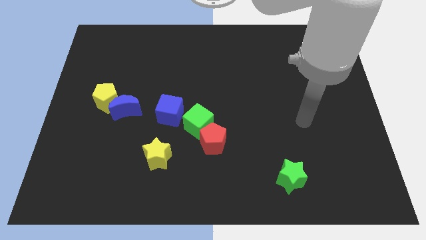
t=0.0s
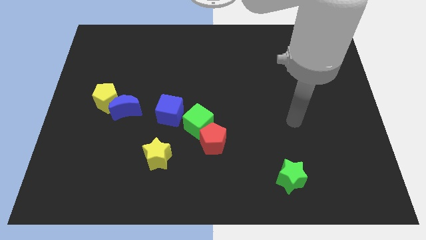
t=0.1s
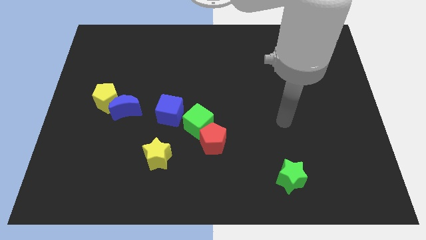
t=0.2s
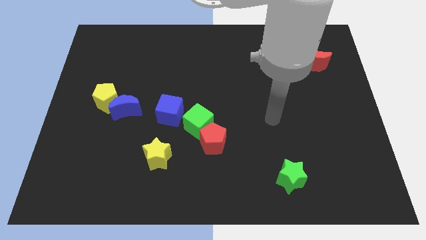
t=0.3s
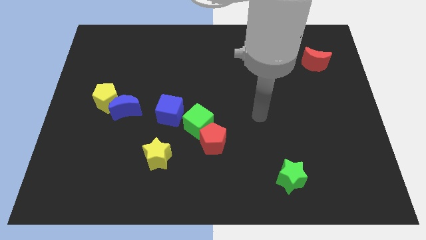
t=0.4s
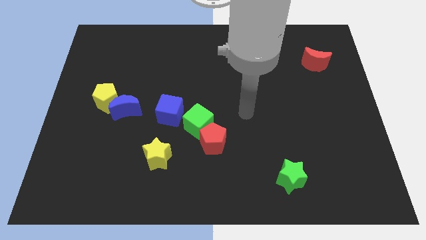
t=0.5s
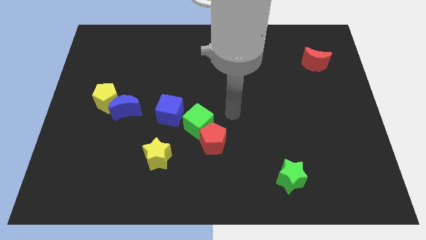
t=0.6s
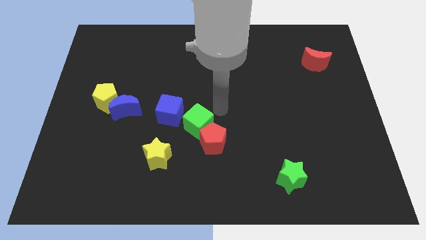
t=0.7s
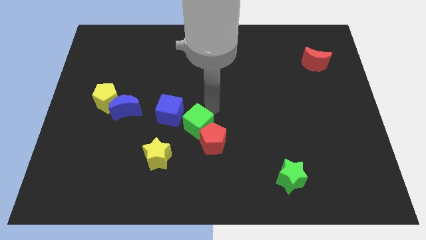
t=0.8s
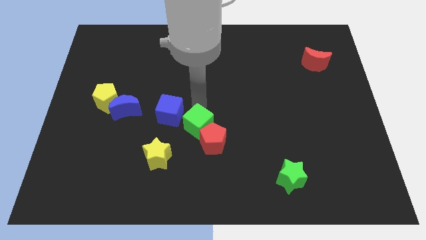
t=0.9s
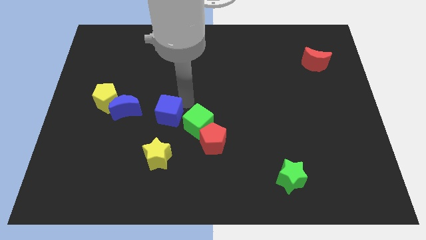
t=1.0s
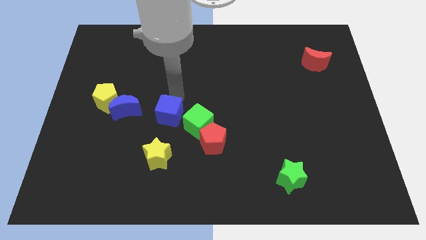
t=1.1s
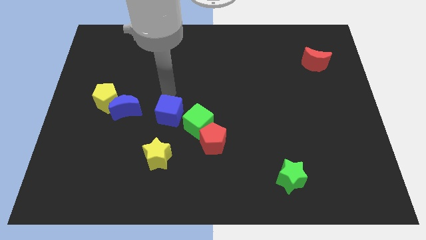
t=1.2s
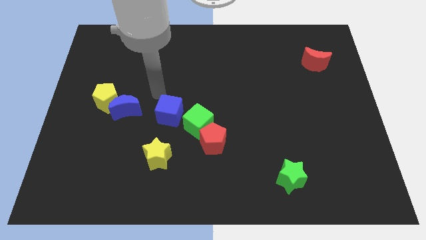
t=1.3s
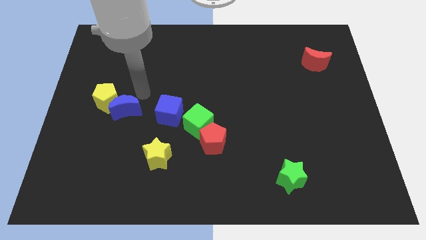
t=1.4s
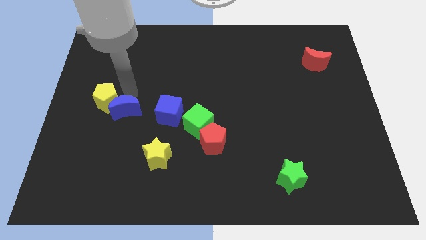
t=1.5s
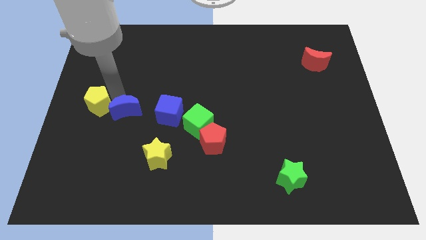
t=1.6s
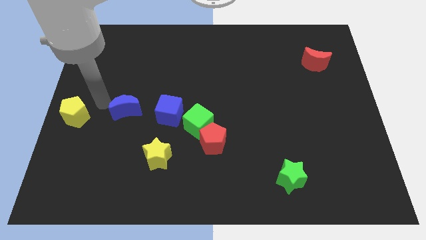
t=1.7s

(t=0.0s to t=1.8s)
pull the blue moon apart from the yellow pentagon

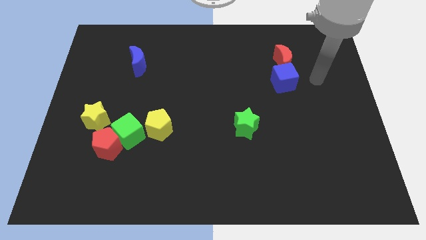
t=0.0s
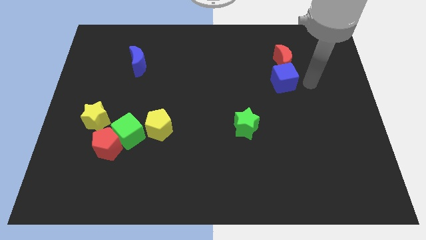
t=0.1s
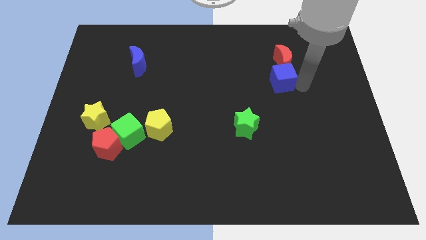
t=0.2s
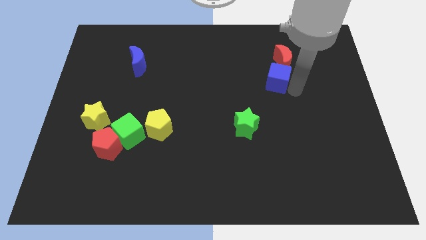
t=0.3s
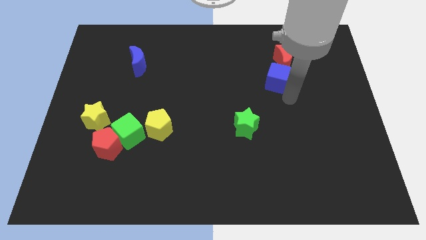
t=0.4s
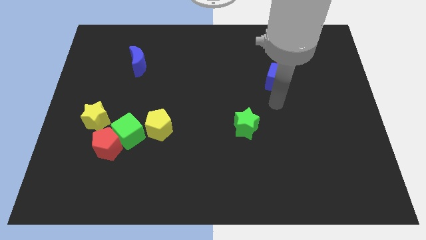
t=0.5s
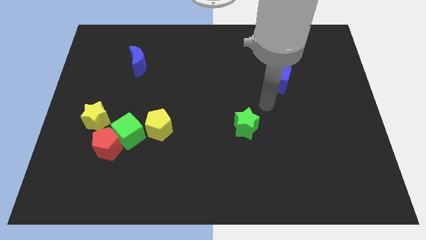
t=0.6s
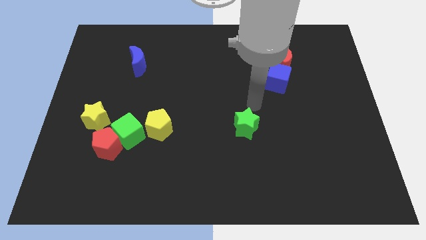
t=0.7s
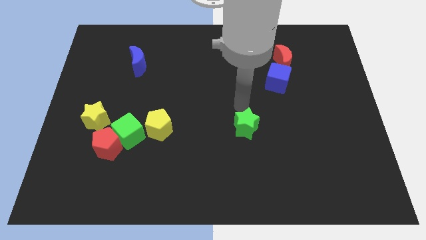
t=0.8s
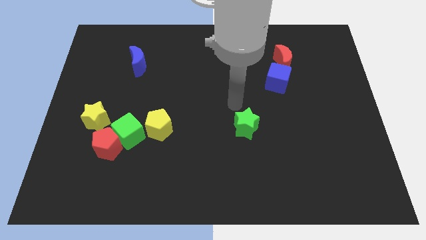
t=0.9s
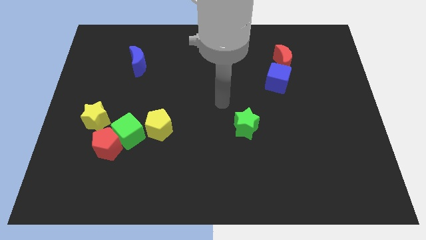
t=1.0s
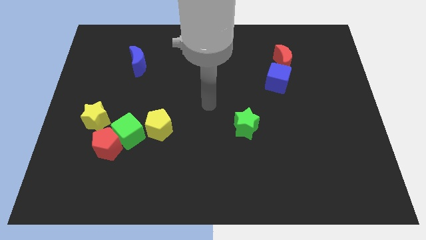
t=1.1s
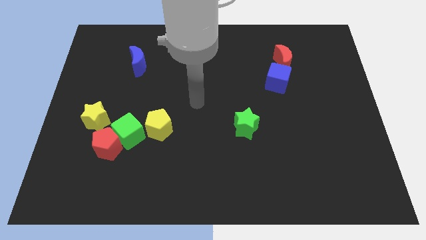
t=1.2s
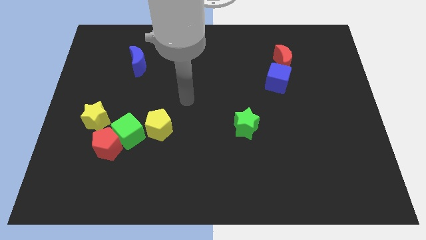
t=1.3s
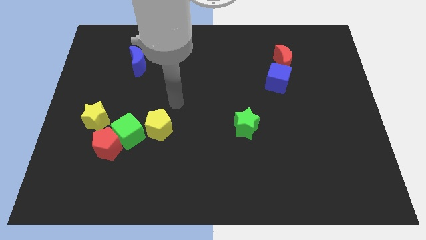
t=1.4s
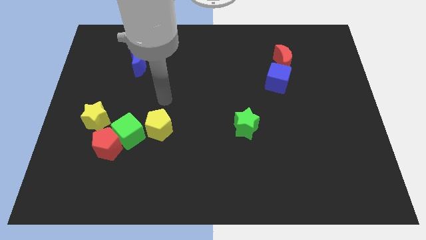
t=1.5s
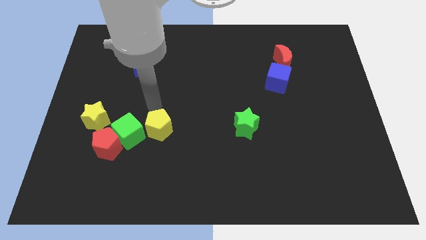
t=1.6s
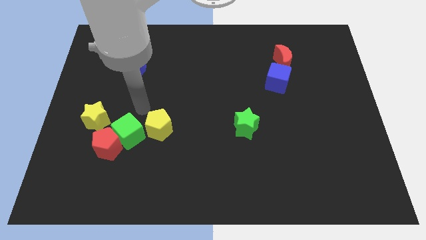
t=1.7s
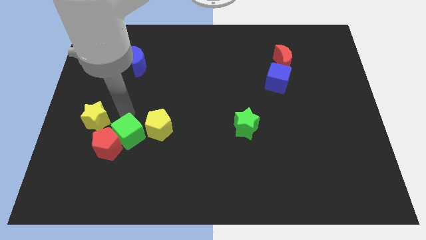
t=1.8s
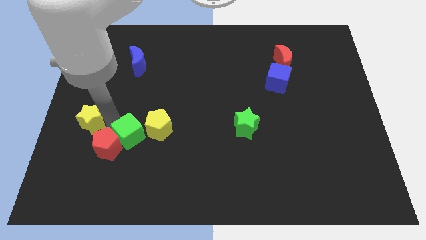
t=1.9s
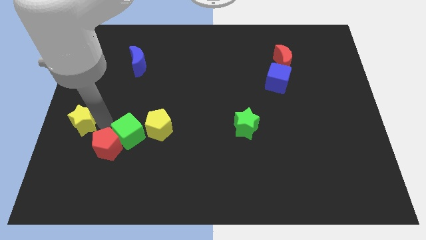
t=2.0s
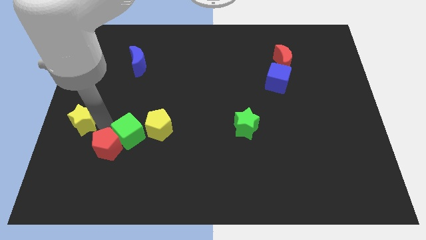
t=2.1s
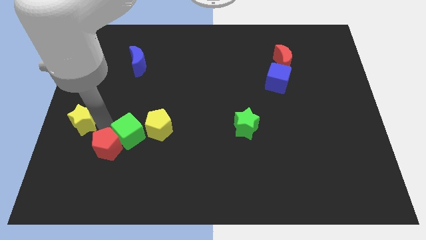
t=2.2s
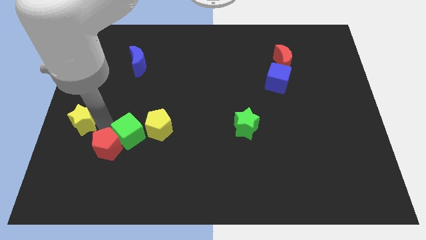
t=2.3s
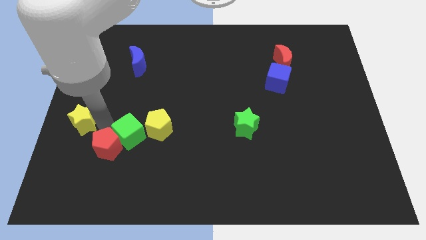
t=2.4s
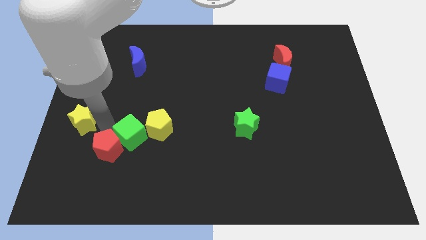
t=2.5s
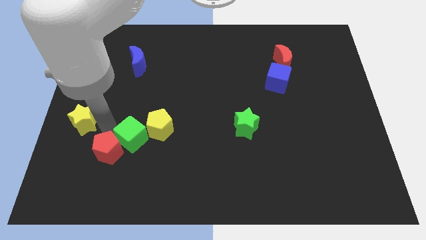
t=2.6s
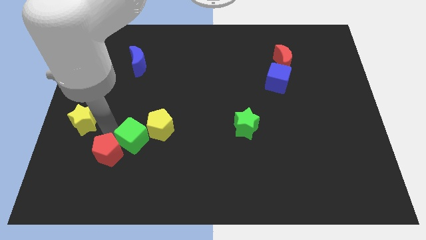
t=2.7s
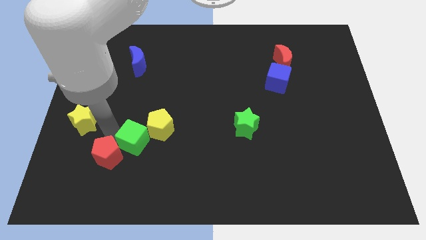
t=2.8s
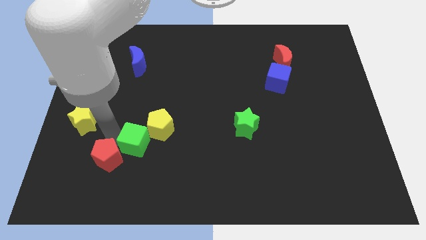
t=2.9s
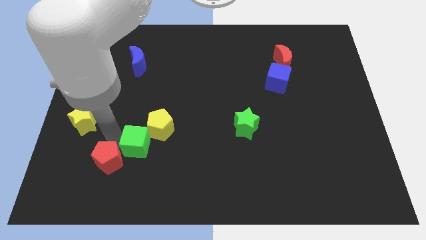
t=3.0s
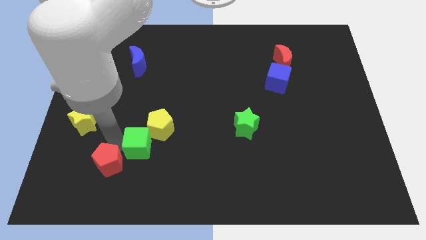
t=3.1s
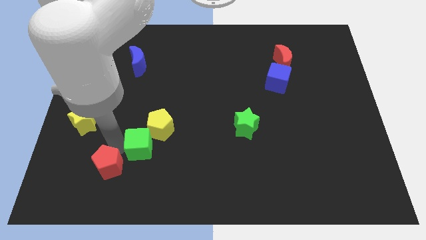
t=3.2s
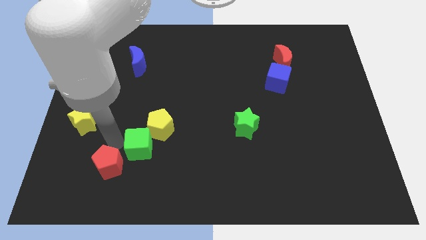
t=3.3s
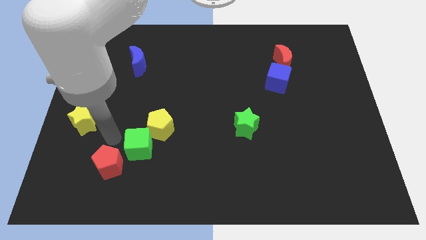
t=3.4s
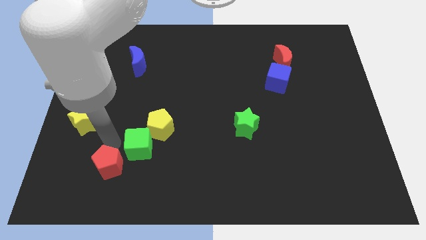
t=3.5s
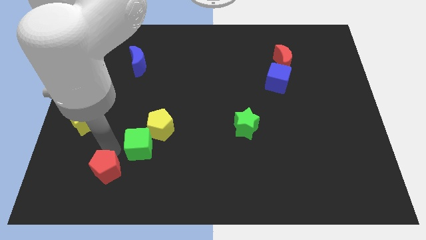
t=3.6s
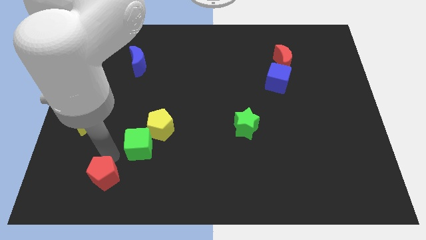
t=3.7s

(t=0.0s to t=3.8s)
pull the red pentagon apart from the green cube and yellow star

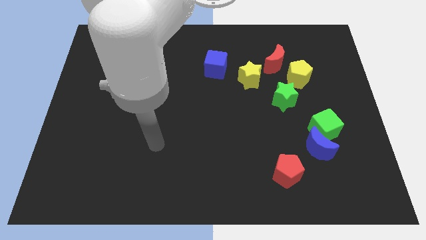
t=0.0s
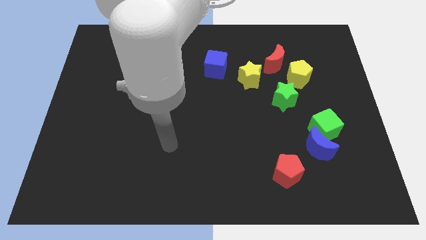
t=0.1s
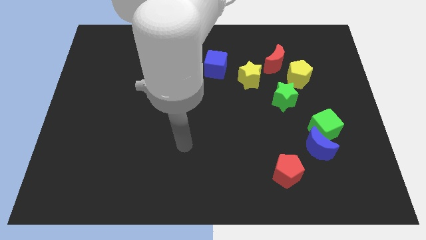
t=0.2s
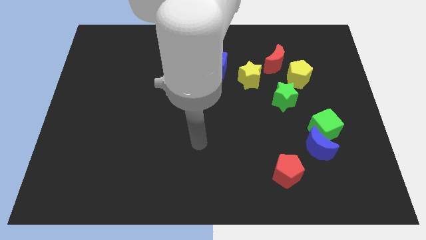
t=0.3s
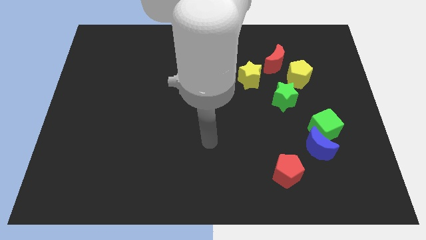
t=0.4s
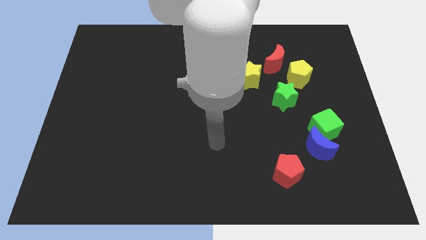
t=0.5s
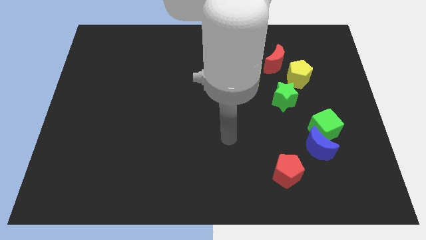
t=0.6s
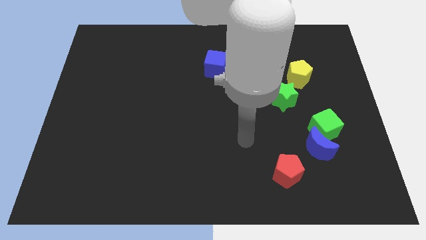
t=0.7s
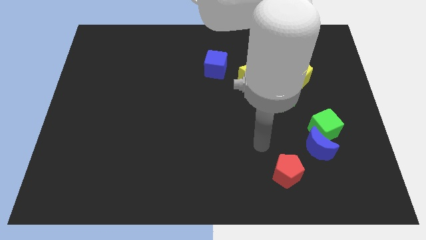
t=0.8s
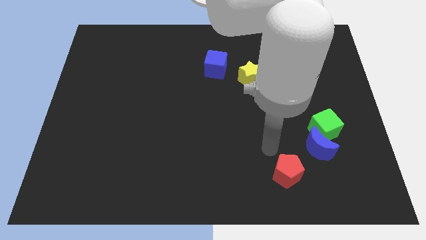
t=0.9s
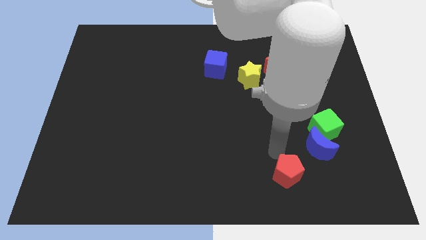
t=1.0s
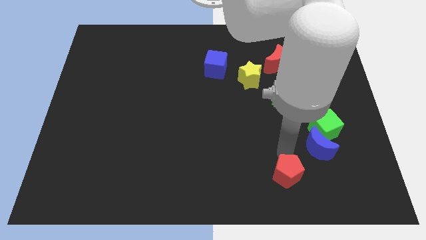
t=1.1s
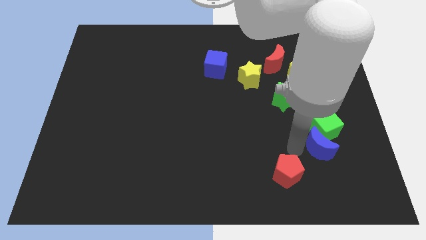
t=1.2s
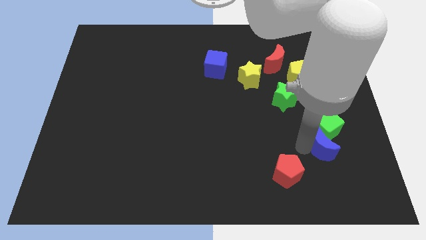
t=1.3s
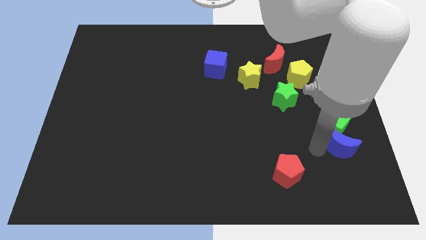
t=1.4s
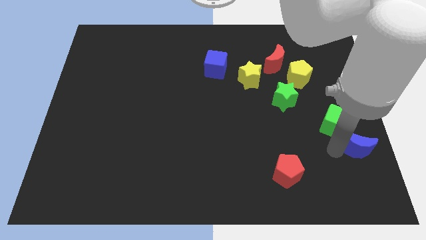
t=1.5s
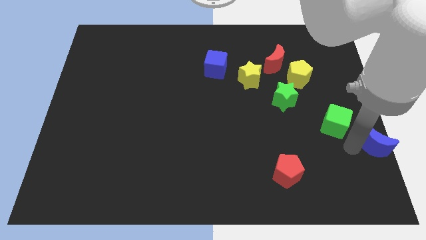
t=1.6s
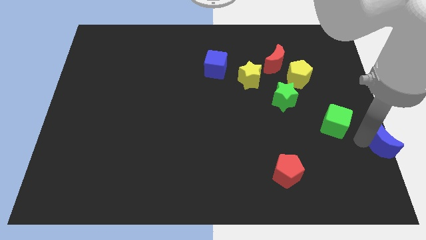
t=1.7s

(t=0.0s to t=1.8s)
move the green cube away from the blue moon

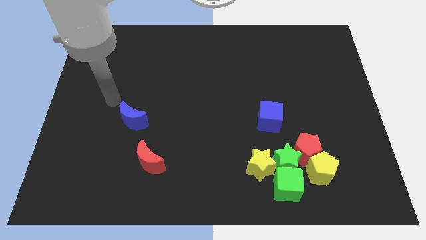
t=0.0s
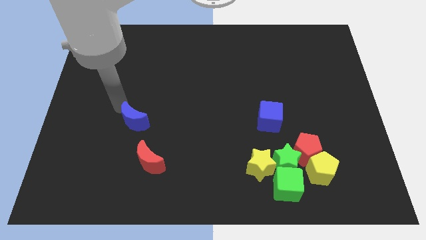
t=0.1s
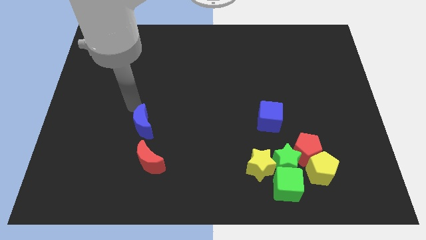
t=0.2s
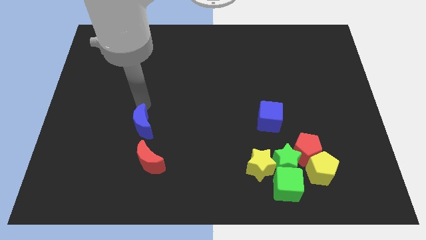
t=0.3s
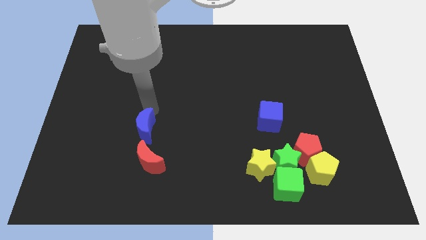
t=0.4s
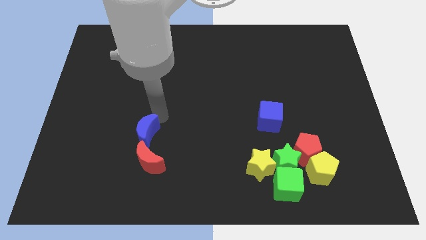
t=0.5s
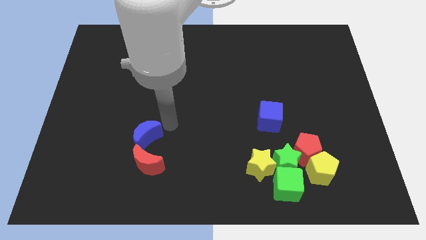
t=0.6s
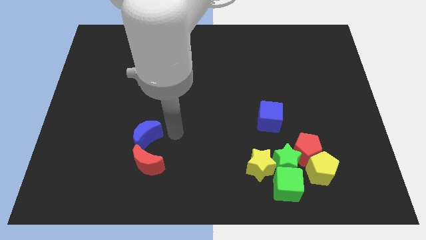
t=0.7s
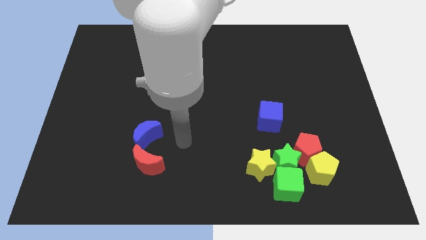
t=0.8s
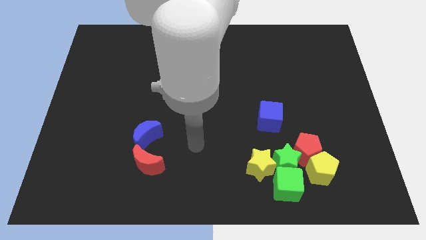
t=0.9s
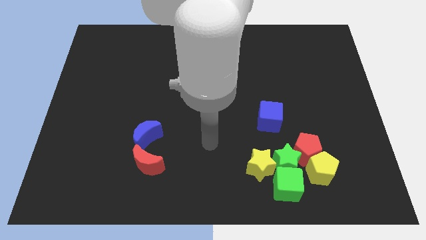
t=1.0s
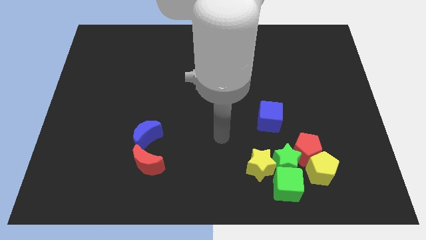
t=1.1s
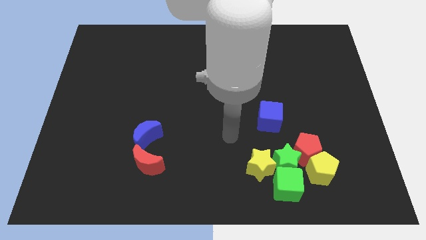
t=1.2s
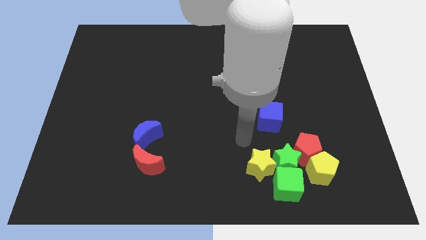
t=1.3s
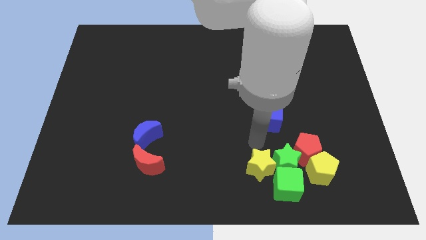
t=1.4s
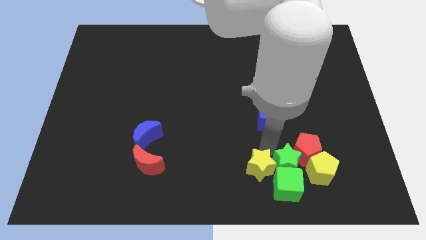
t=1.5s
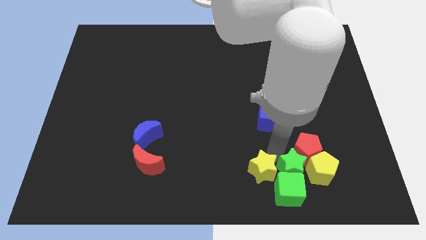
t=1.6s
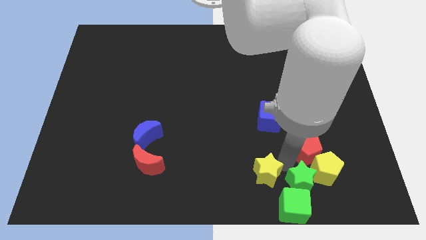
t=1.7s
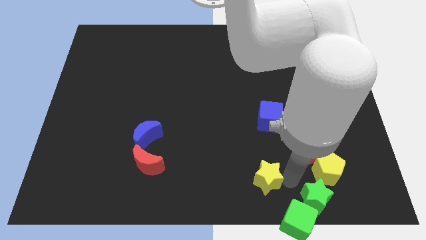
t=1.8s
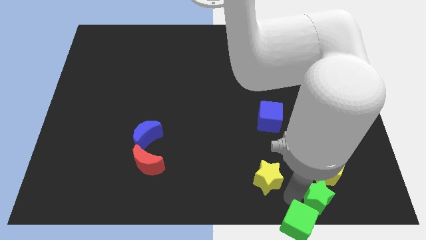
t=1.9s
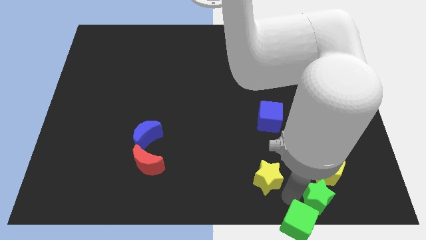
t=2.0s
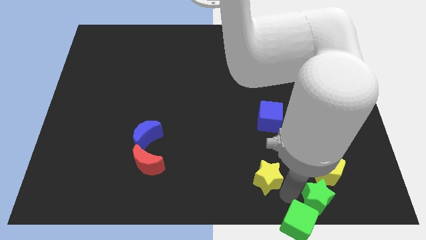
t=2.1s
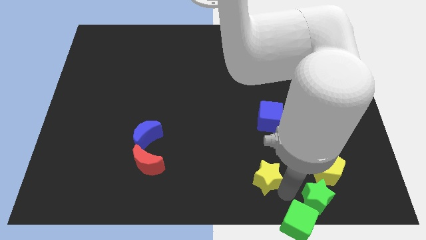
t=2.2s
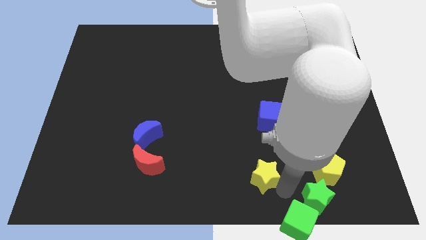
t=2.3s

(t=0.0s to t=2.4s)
pull the yellow star apart from the green star and green cube
